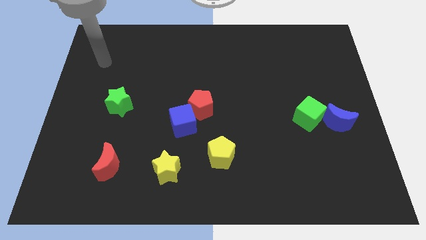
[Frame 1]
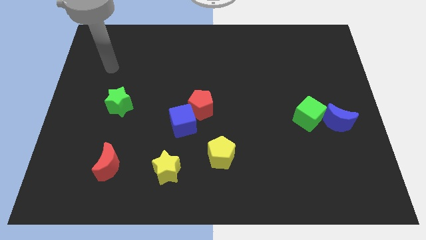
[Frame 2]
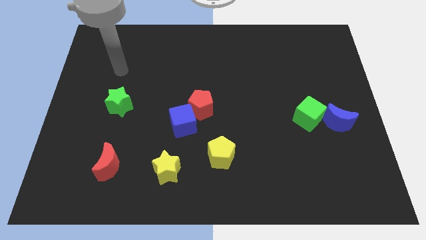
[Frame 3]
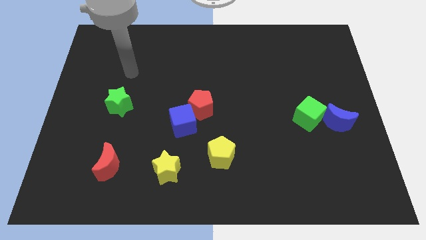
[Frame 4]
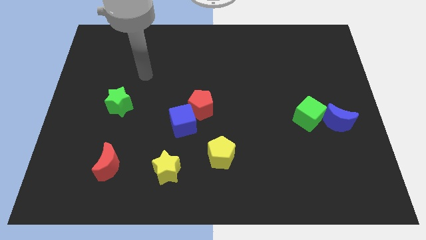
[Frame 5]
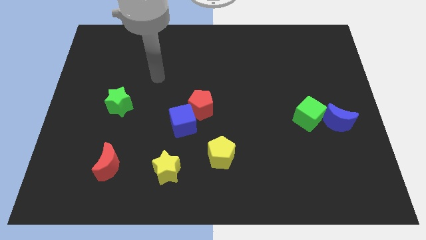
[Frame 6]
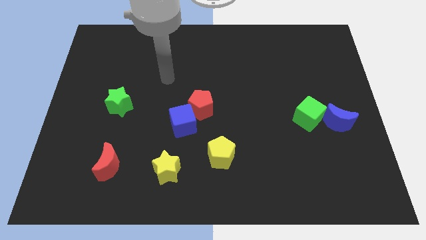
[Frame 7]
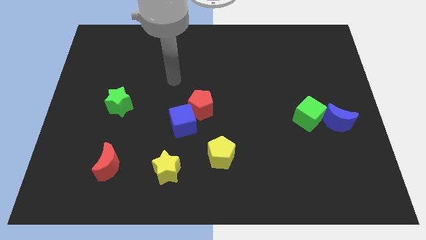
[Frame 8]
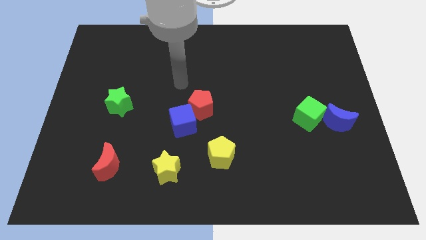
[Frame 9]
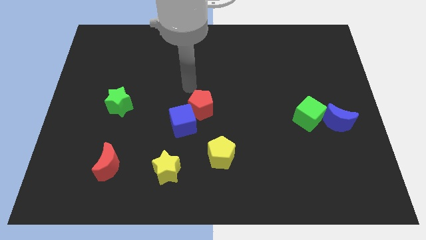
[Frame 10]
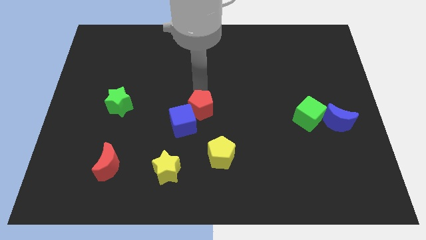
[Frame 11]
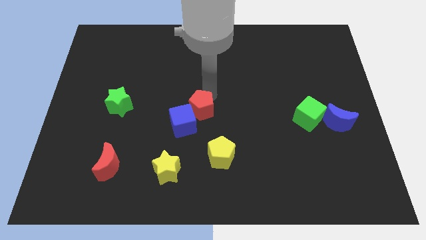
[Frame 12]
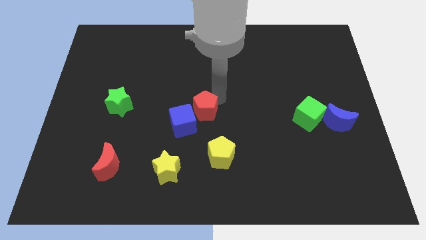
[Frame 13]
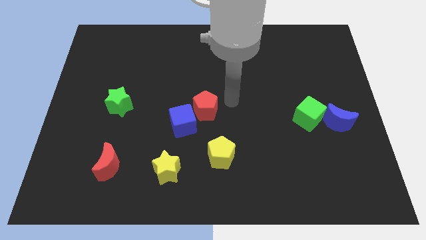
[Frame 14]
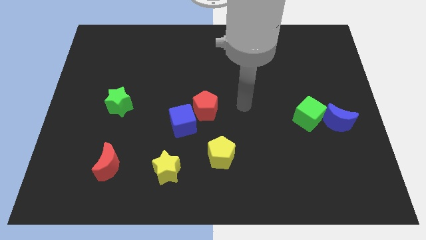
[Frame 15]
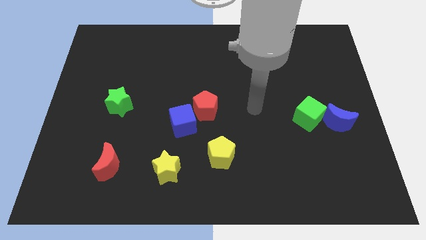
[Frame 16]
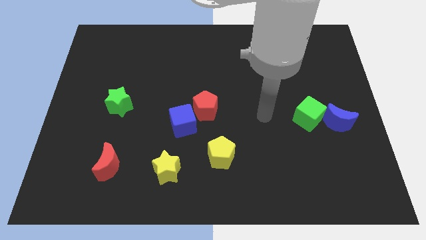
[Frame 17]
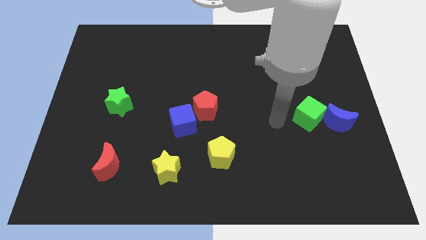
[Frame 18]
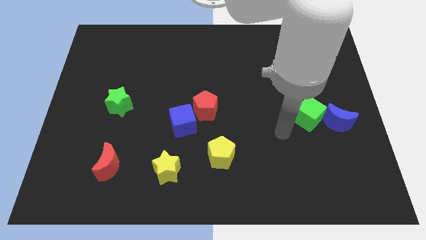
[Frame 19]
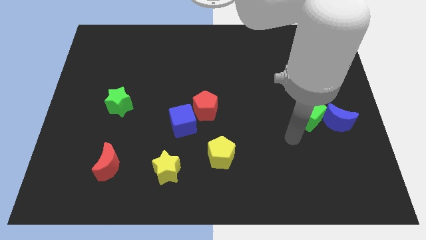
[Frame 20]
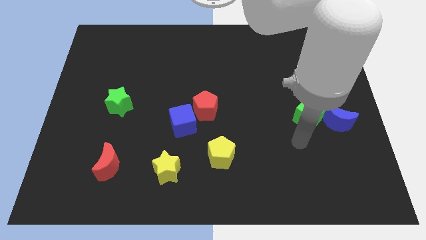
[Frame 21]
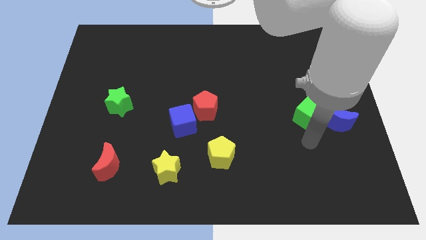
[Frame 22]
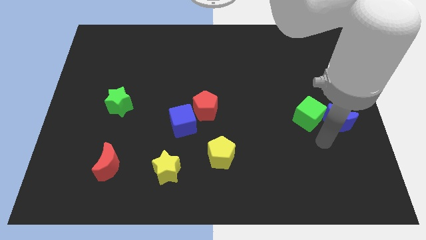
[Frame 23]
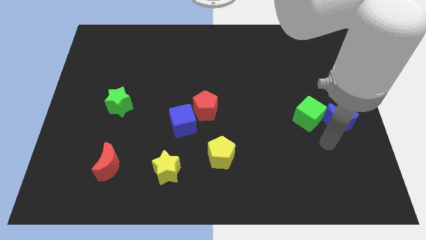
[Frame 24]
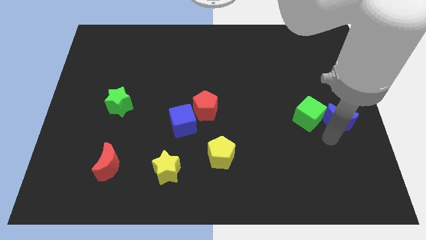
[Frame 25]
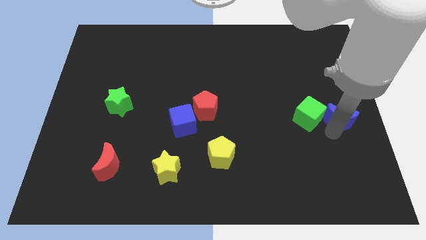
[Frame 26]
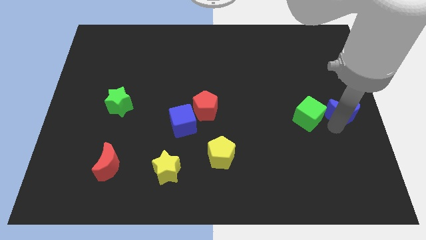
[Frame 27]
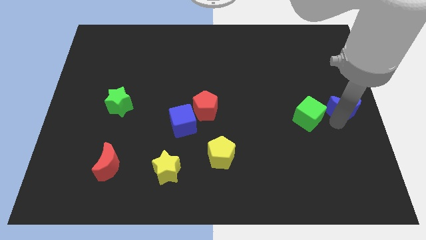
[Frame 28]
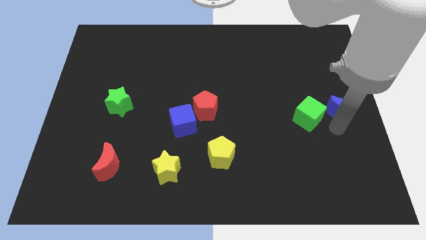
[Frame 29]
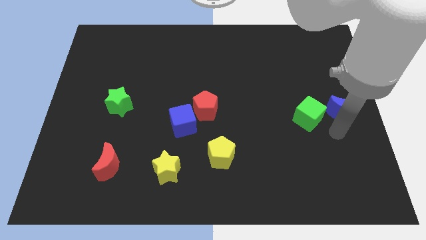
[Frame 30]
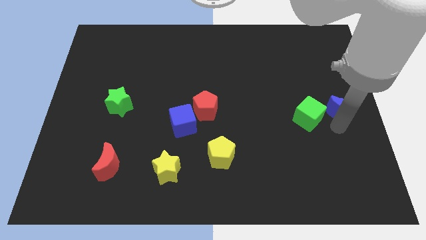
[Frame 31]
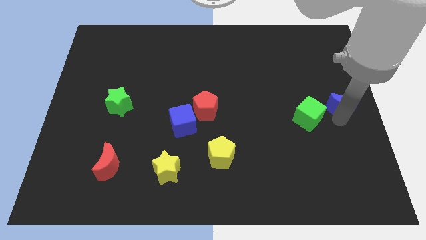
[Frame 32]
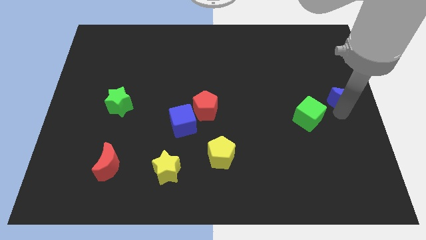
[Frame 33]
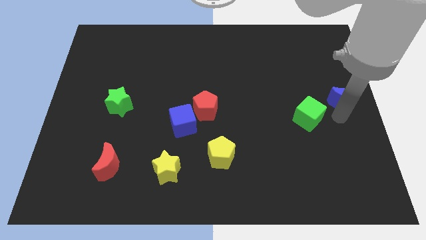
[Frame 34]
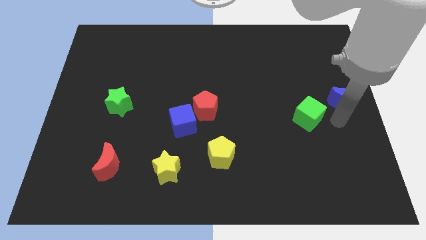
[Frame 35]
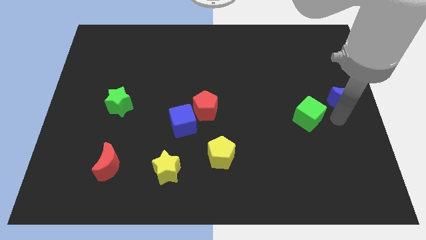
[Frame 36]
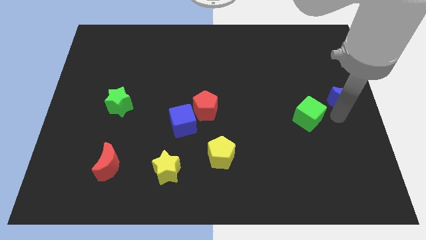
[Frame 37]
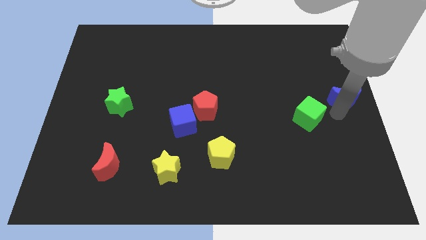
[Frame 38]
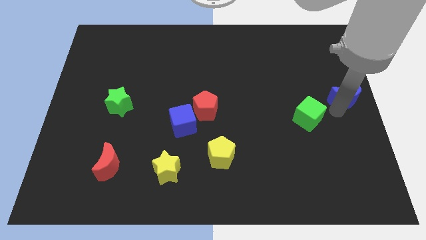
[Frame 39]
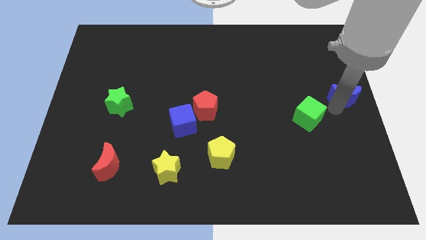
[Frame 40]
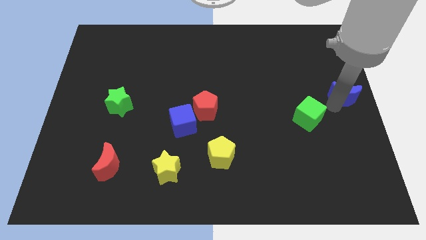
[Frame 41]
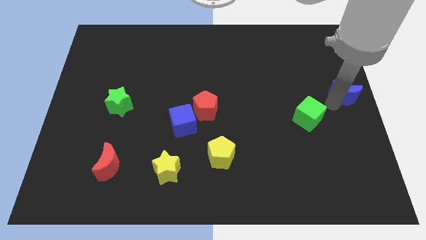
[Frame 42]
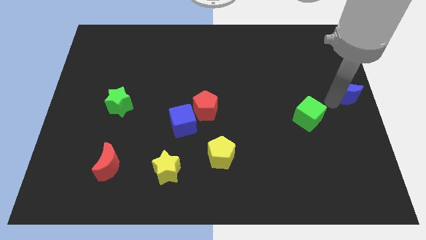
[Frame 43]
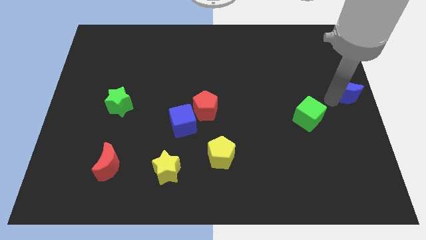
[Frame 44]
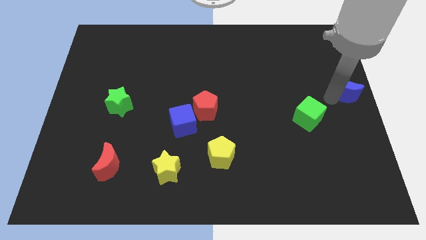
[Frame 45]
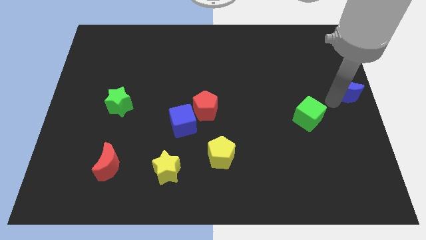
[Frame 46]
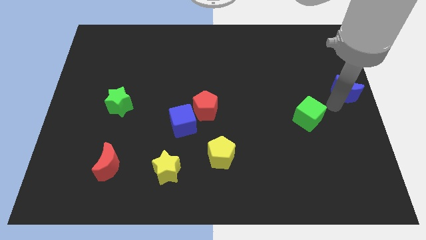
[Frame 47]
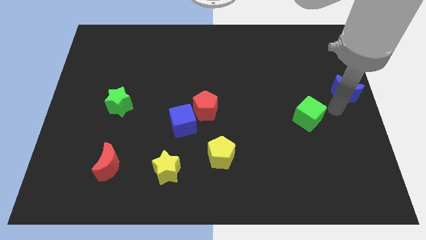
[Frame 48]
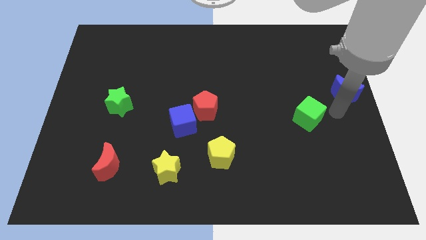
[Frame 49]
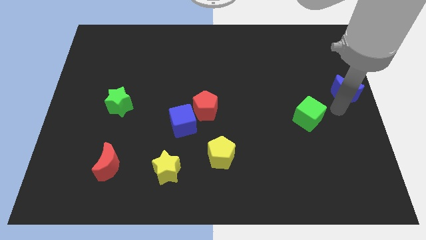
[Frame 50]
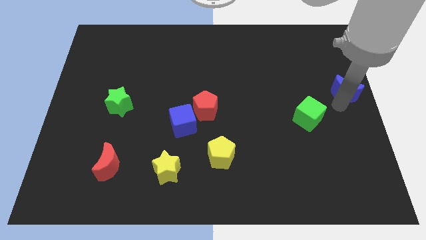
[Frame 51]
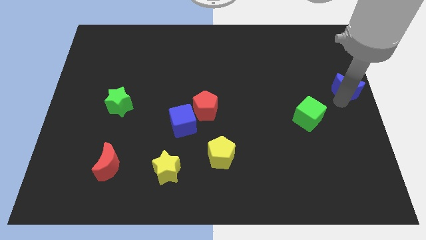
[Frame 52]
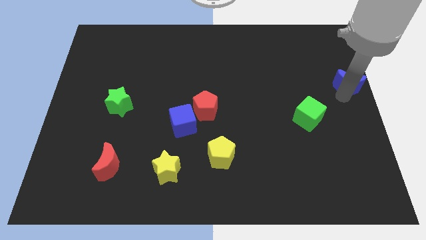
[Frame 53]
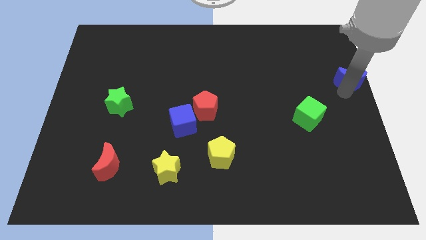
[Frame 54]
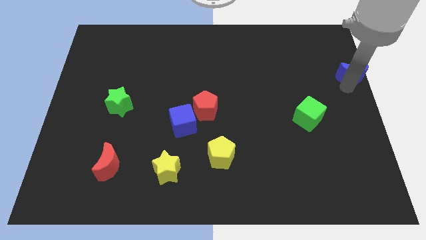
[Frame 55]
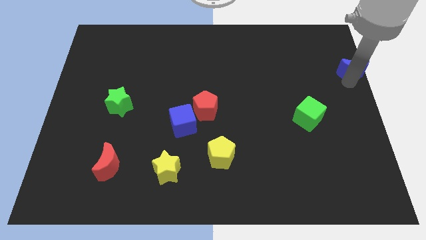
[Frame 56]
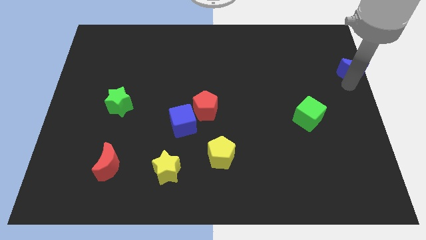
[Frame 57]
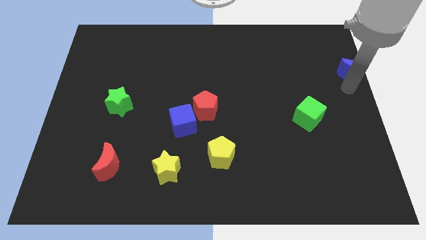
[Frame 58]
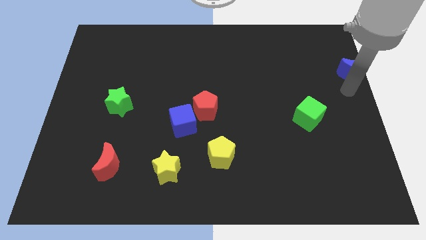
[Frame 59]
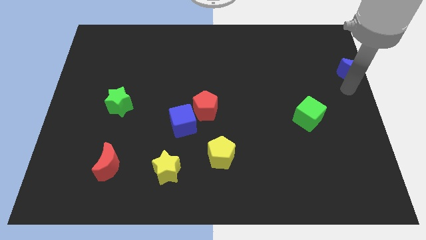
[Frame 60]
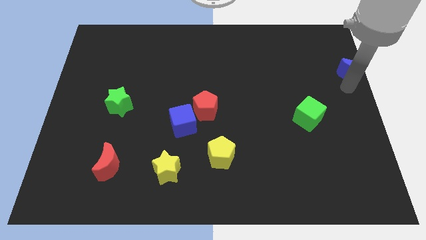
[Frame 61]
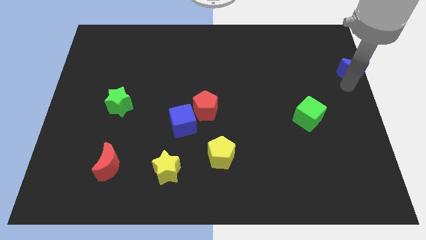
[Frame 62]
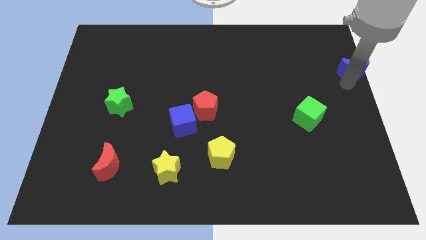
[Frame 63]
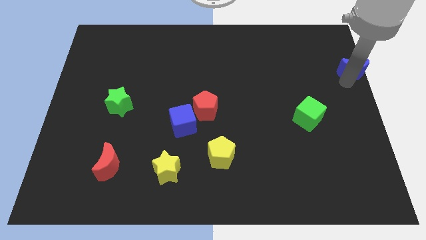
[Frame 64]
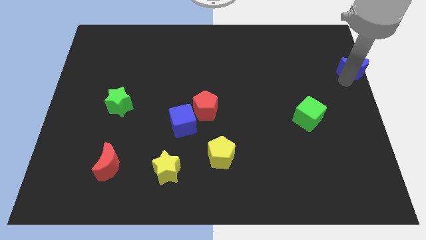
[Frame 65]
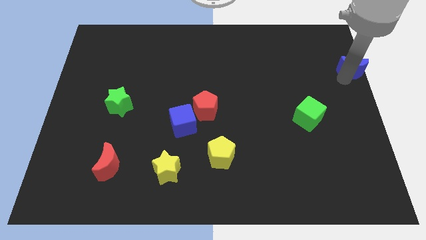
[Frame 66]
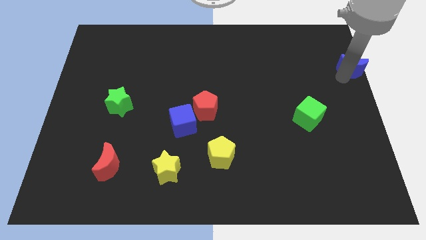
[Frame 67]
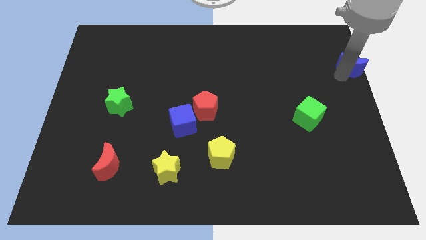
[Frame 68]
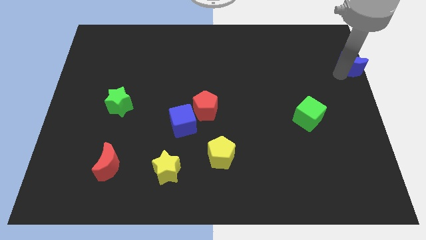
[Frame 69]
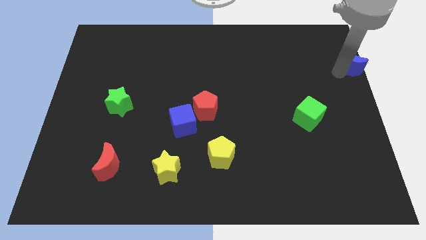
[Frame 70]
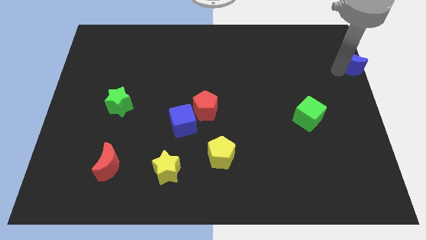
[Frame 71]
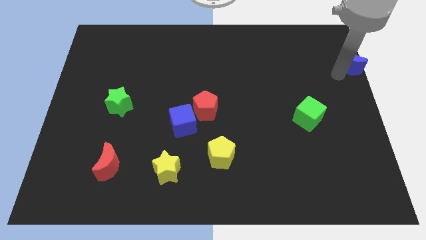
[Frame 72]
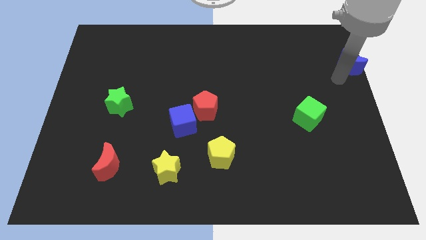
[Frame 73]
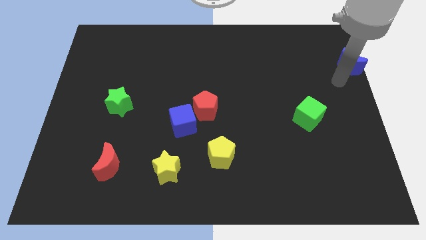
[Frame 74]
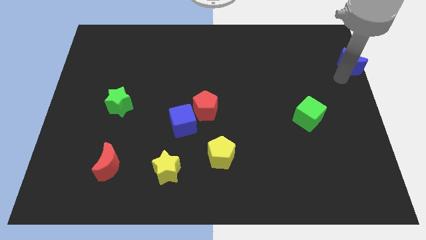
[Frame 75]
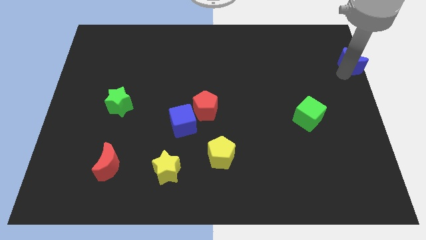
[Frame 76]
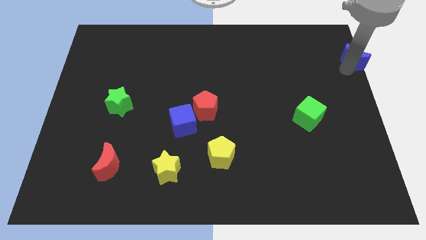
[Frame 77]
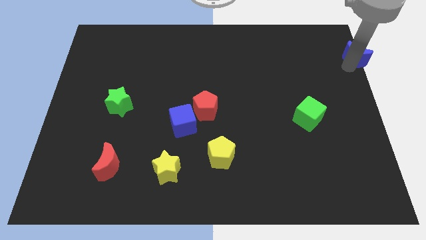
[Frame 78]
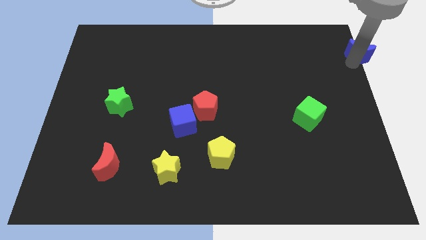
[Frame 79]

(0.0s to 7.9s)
slide the blue moon to the upper right corner
